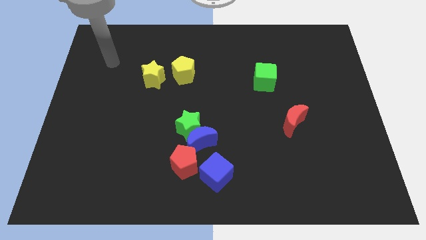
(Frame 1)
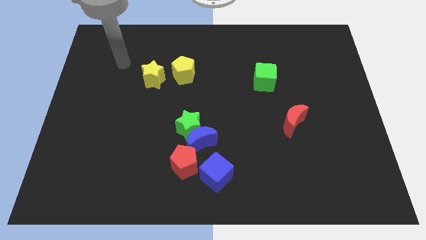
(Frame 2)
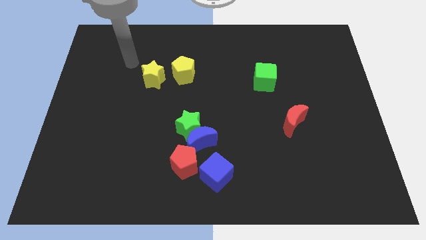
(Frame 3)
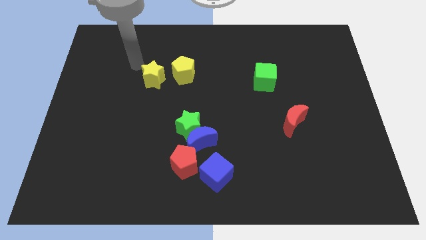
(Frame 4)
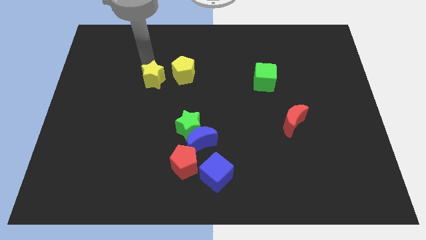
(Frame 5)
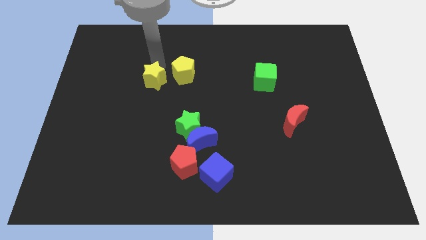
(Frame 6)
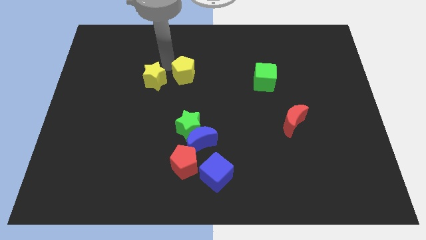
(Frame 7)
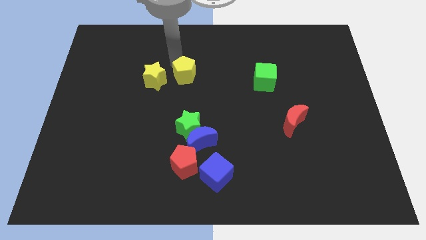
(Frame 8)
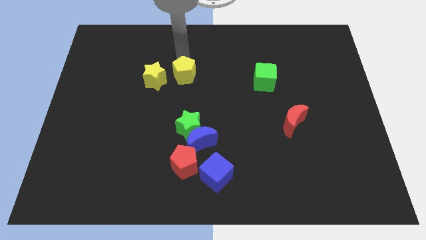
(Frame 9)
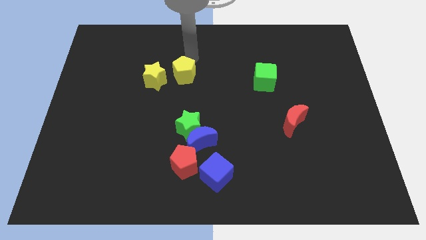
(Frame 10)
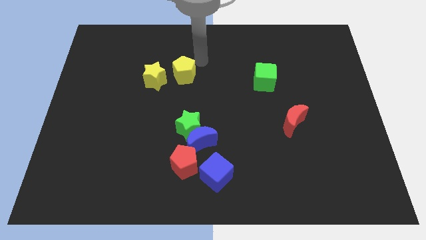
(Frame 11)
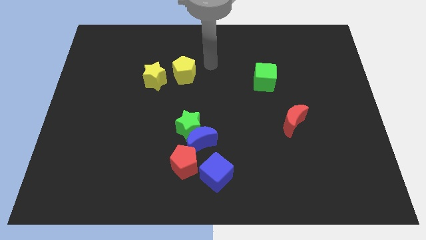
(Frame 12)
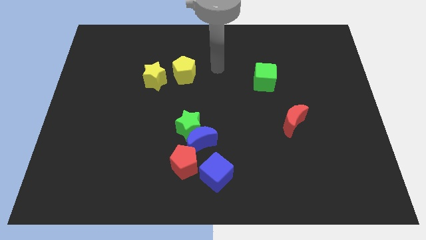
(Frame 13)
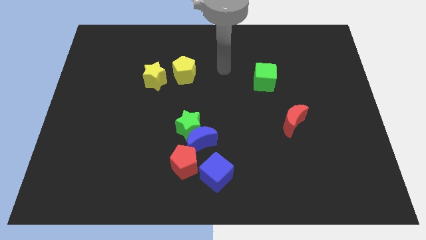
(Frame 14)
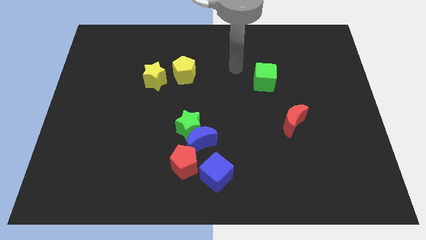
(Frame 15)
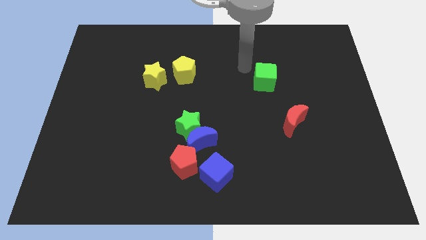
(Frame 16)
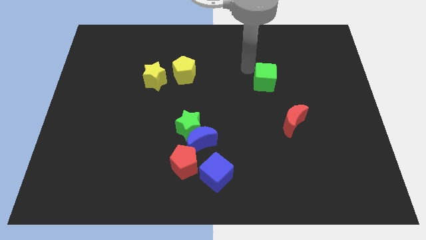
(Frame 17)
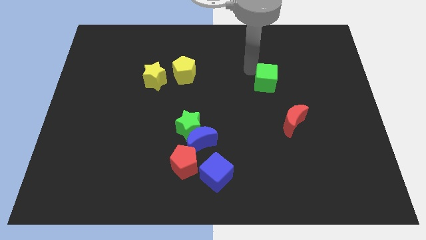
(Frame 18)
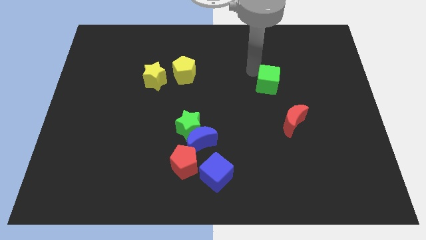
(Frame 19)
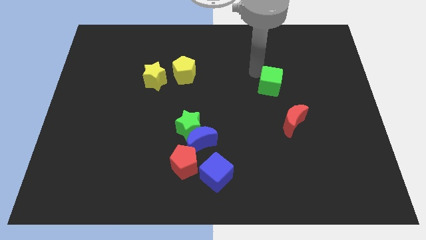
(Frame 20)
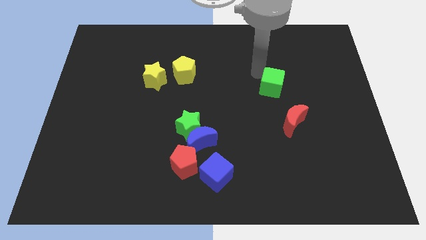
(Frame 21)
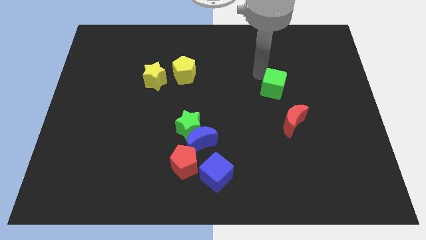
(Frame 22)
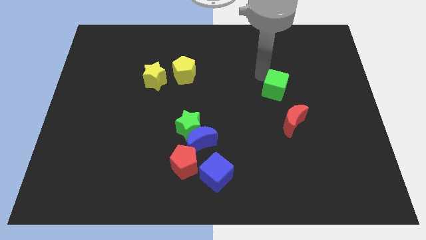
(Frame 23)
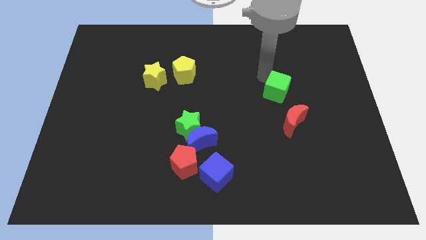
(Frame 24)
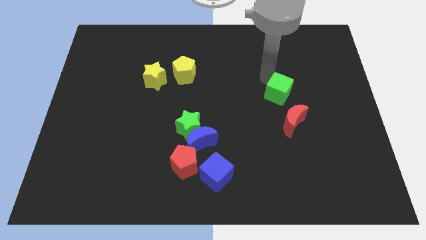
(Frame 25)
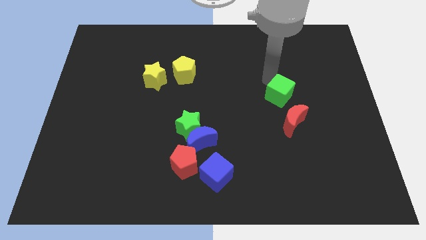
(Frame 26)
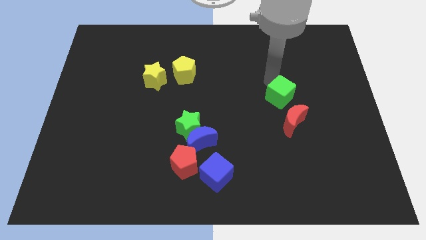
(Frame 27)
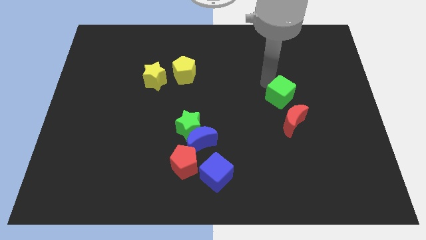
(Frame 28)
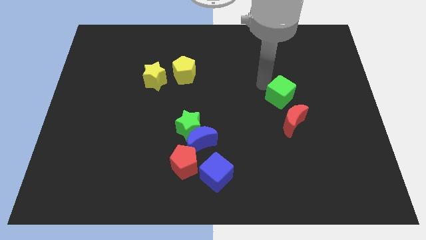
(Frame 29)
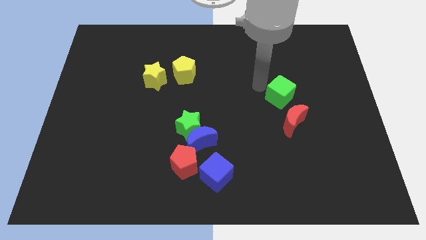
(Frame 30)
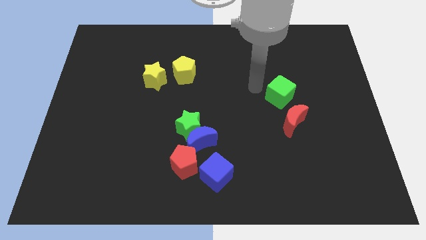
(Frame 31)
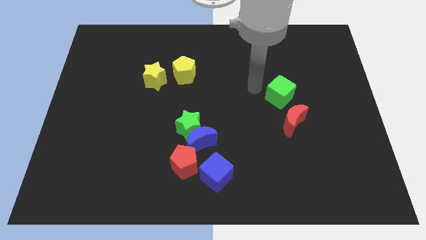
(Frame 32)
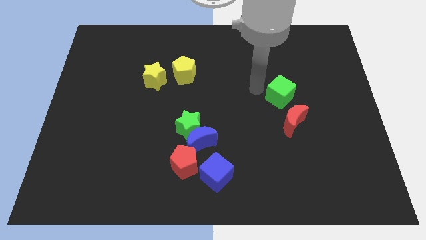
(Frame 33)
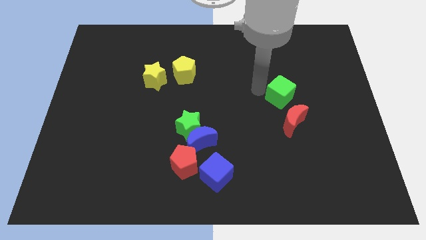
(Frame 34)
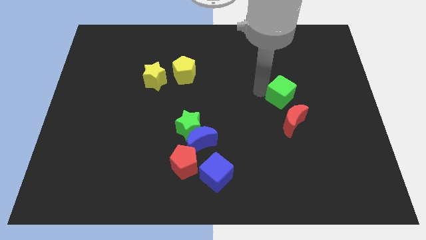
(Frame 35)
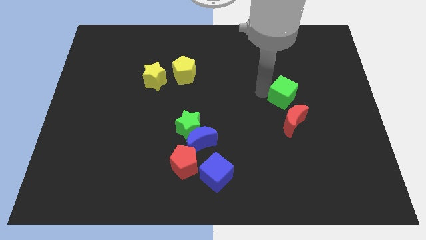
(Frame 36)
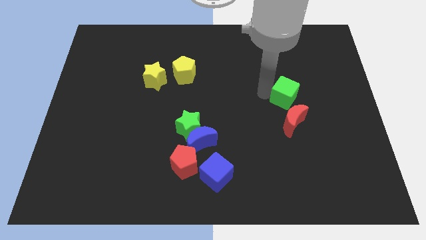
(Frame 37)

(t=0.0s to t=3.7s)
move the green cube a bit downwards and right

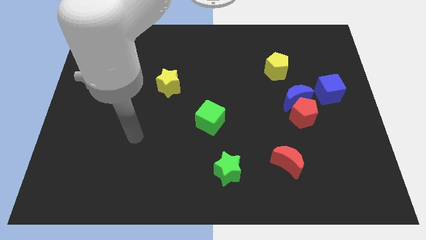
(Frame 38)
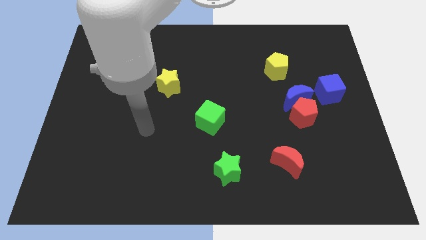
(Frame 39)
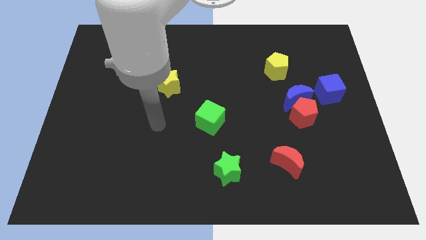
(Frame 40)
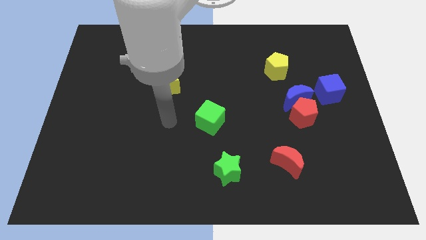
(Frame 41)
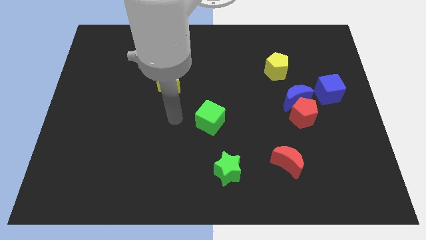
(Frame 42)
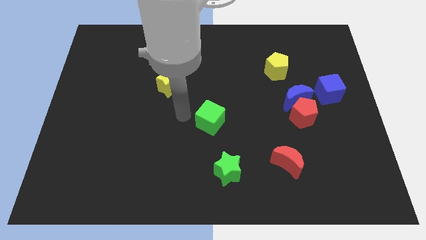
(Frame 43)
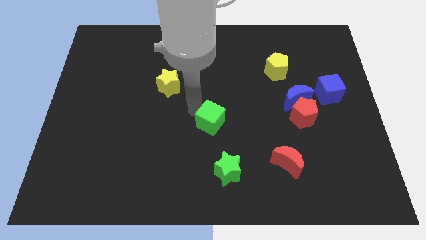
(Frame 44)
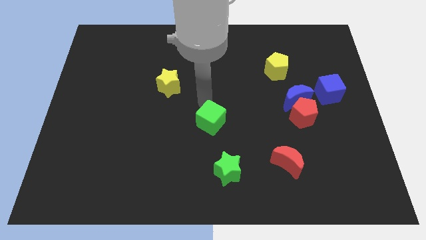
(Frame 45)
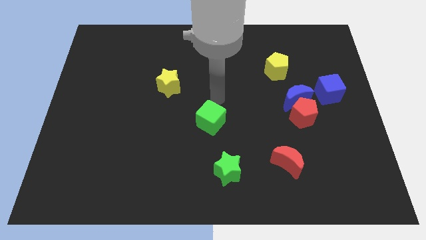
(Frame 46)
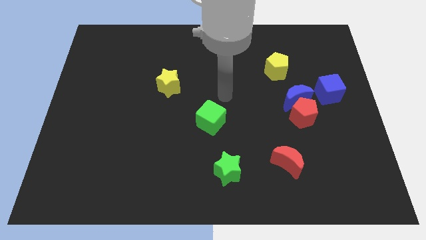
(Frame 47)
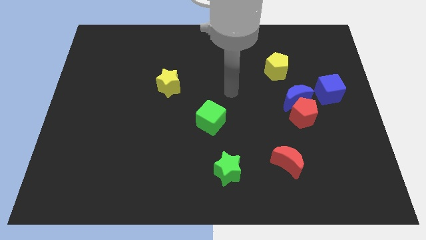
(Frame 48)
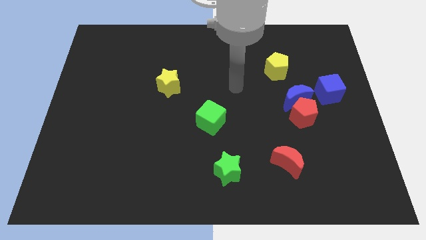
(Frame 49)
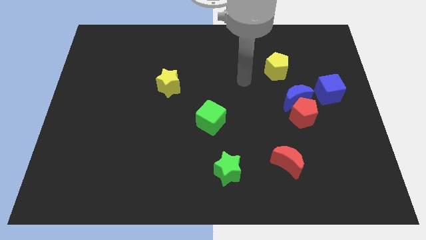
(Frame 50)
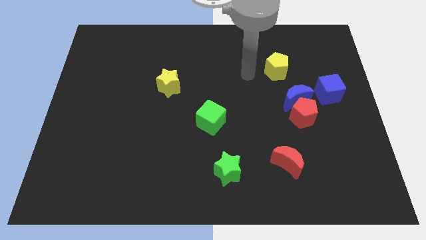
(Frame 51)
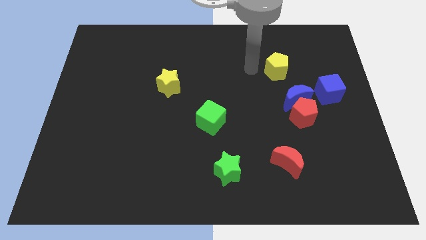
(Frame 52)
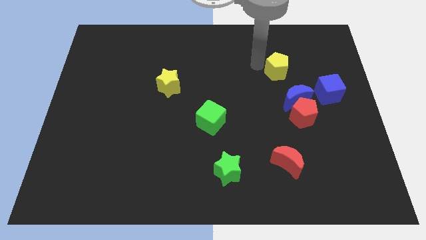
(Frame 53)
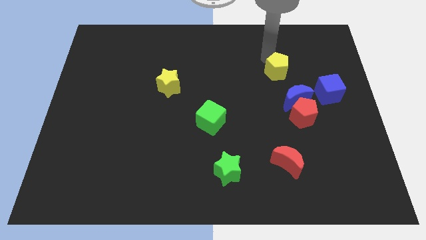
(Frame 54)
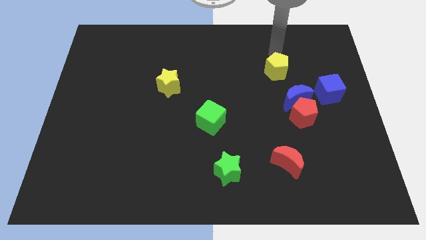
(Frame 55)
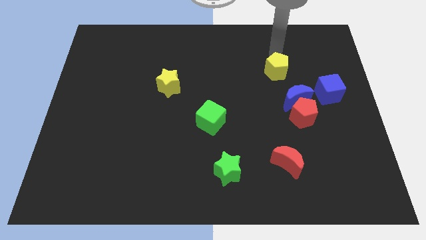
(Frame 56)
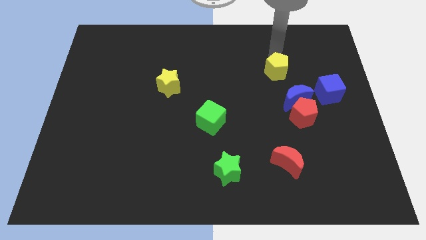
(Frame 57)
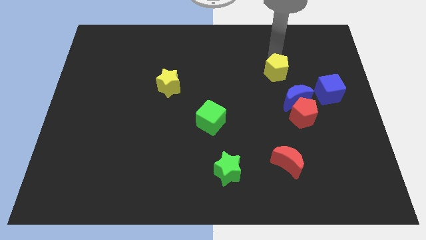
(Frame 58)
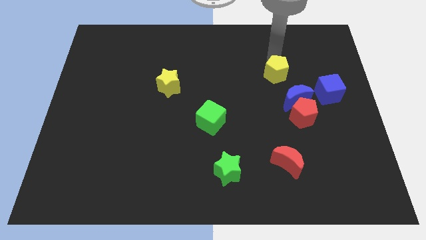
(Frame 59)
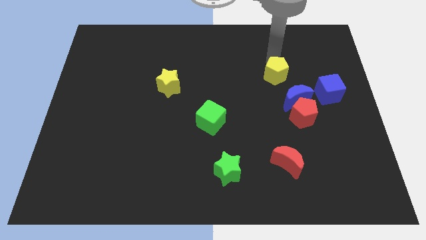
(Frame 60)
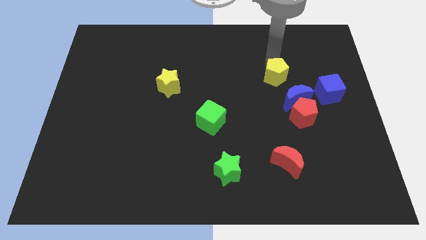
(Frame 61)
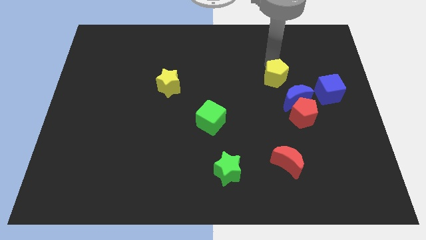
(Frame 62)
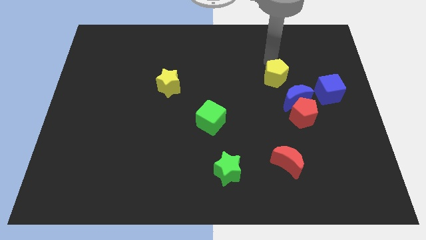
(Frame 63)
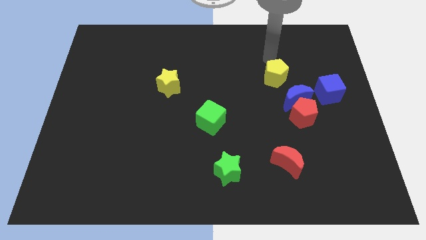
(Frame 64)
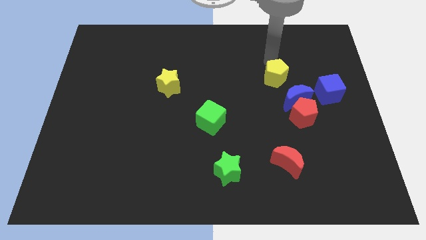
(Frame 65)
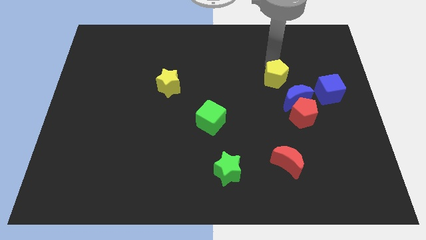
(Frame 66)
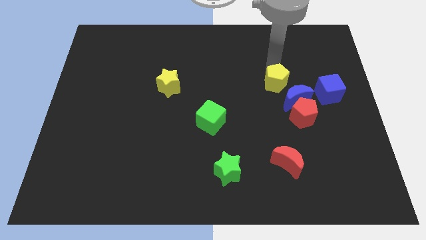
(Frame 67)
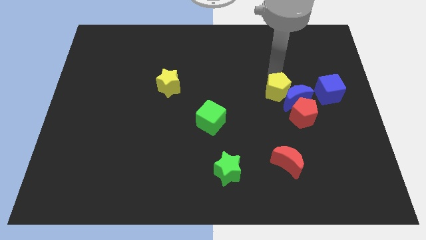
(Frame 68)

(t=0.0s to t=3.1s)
push the yellow pentagon a bit down

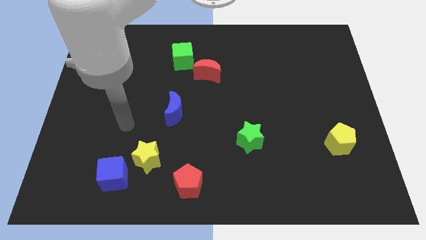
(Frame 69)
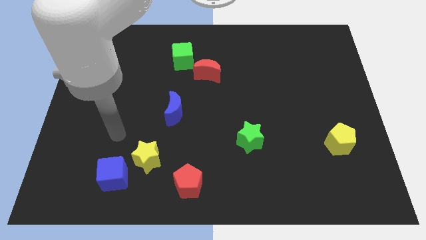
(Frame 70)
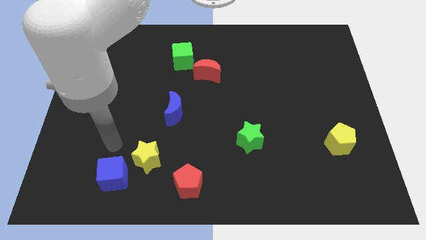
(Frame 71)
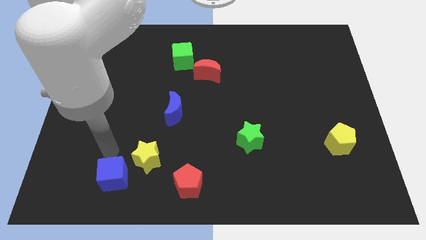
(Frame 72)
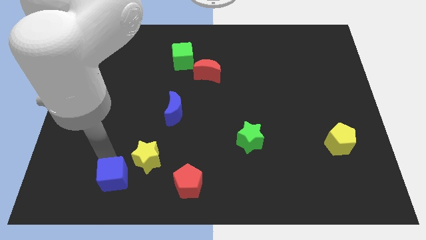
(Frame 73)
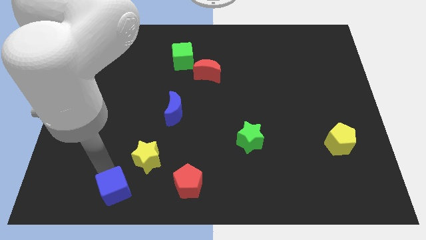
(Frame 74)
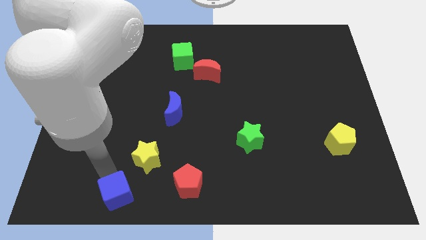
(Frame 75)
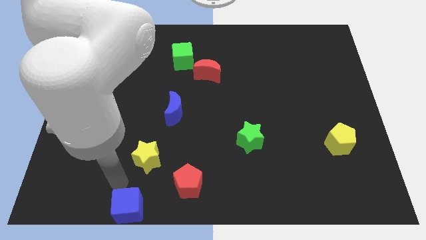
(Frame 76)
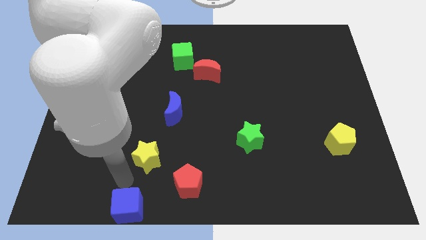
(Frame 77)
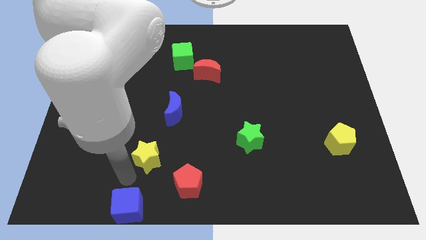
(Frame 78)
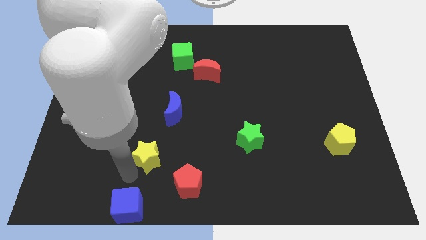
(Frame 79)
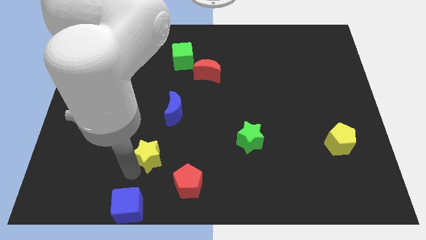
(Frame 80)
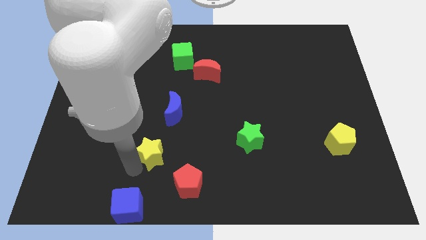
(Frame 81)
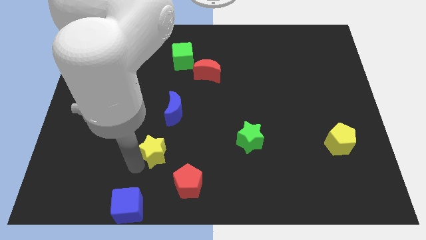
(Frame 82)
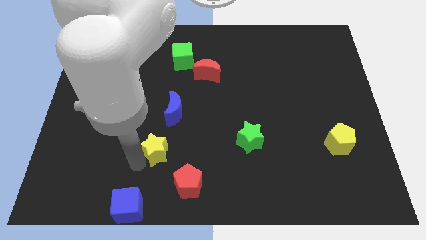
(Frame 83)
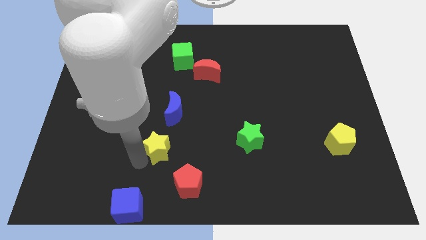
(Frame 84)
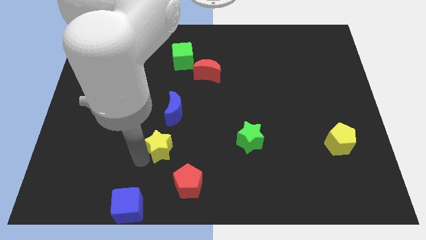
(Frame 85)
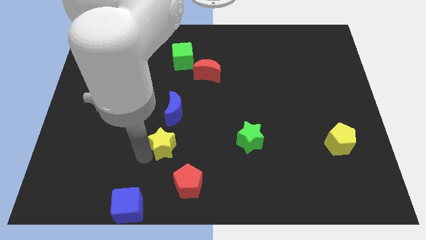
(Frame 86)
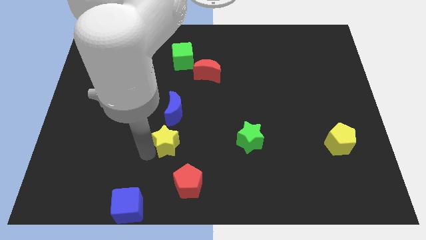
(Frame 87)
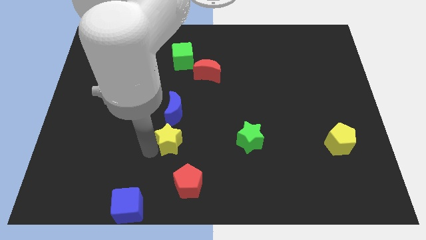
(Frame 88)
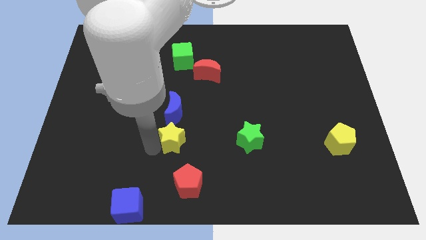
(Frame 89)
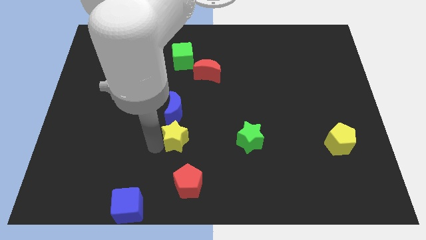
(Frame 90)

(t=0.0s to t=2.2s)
slide the yellow star somewhat upwards and right
